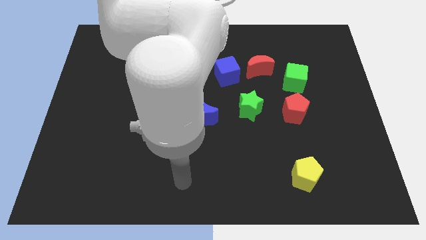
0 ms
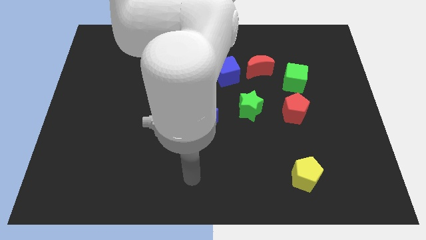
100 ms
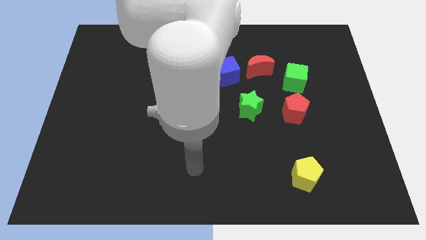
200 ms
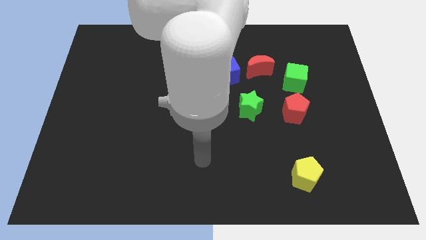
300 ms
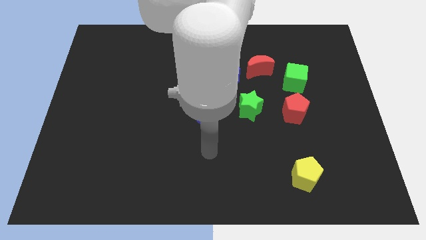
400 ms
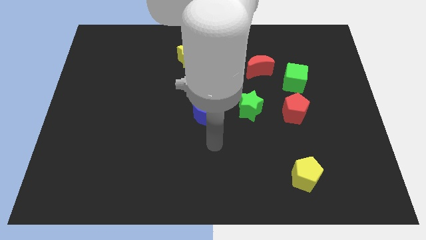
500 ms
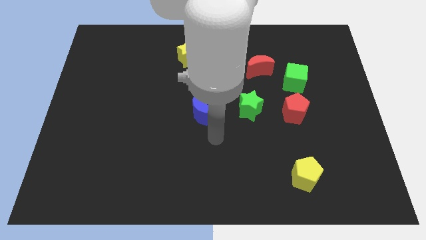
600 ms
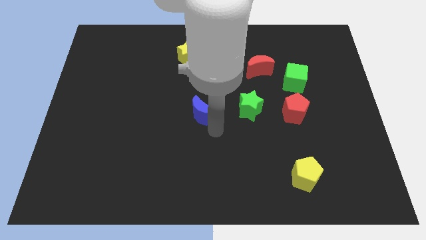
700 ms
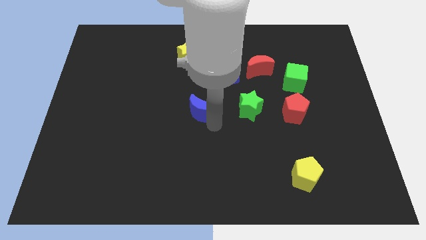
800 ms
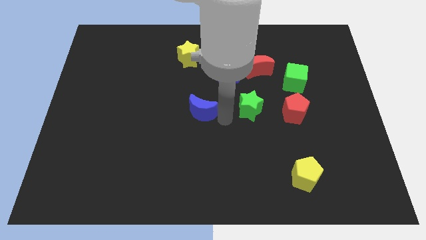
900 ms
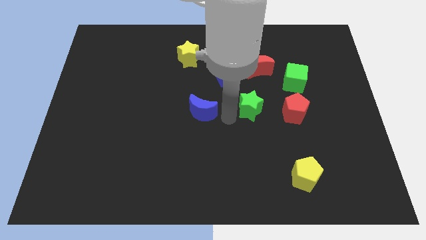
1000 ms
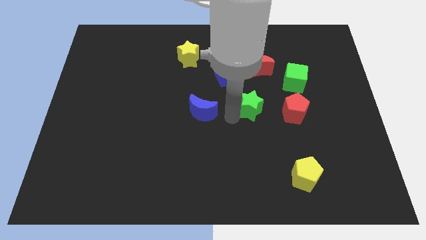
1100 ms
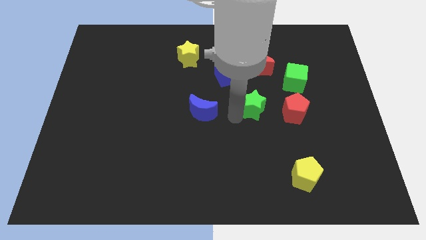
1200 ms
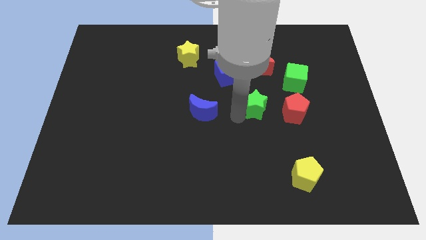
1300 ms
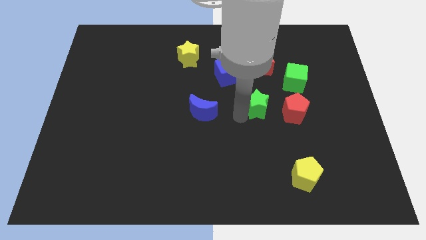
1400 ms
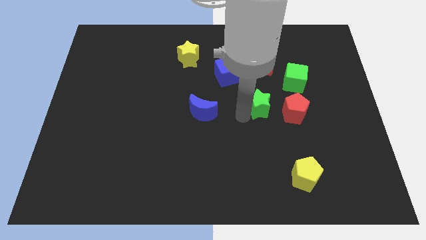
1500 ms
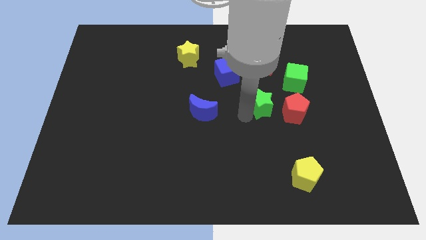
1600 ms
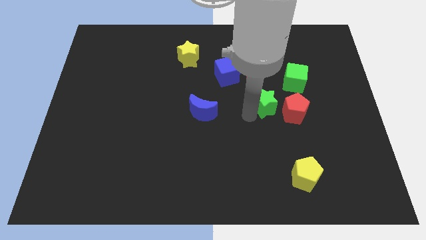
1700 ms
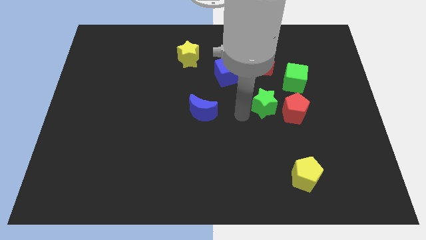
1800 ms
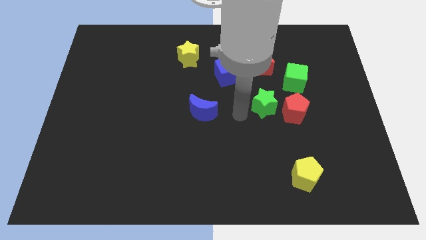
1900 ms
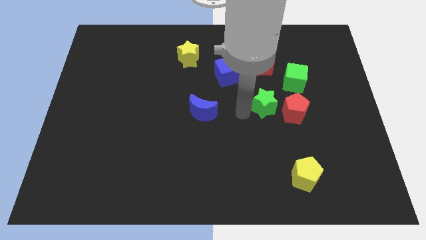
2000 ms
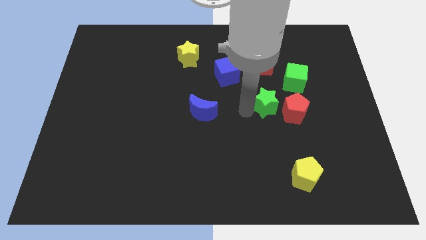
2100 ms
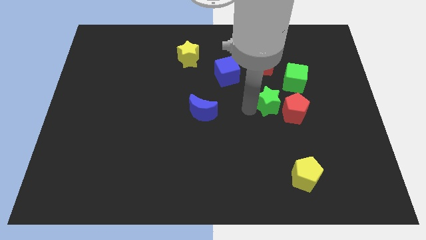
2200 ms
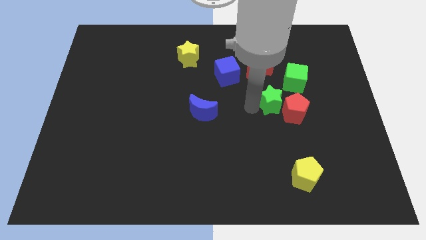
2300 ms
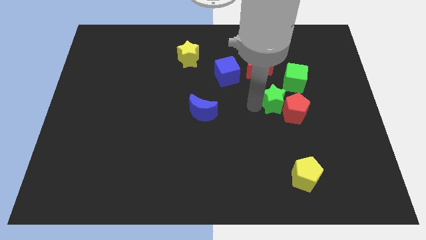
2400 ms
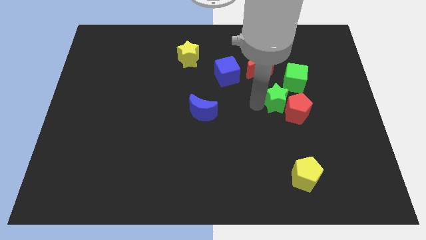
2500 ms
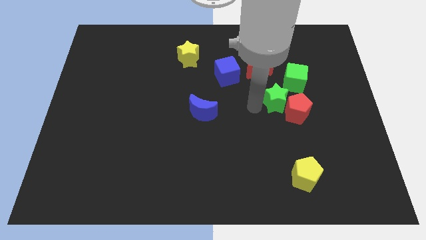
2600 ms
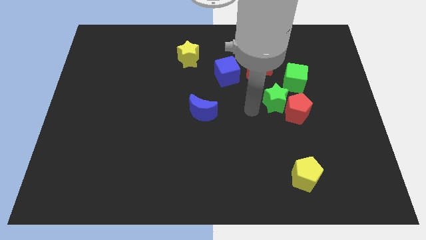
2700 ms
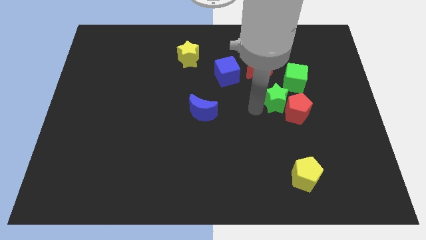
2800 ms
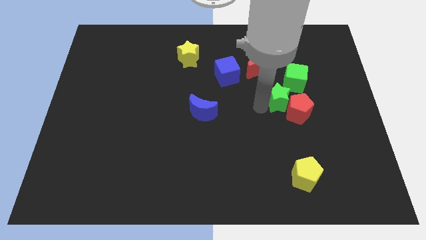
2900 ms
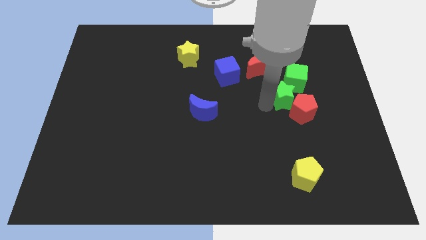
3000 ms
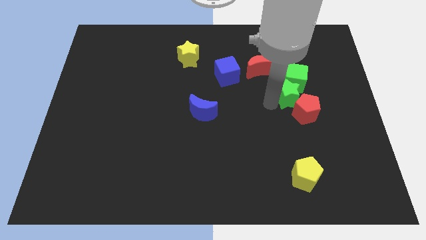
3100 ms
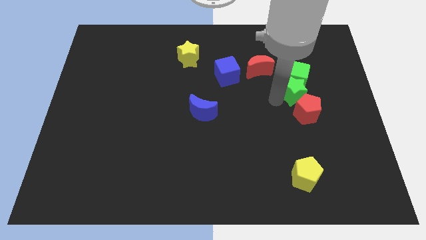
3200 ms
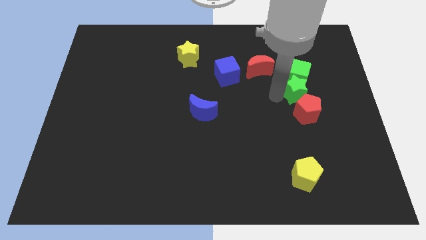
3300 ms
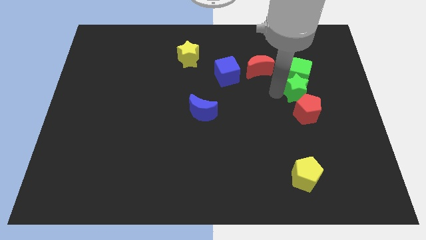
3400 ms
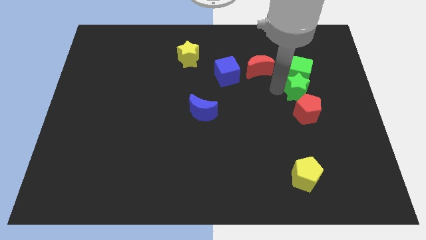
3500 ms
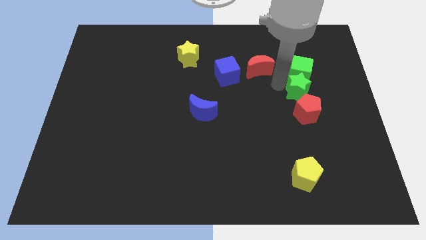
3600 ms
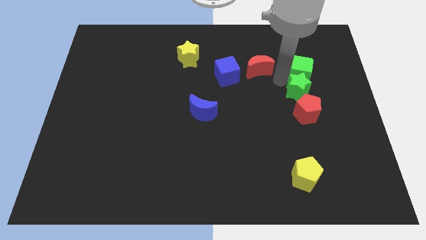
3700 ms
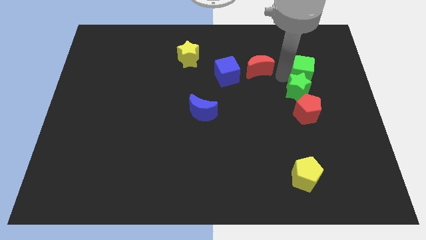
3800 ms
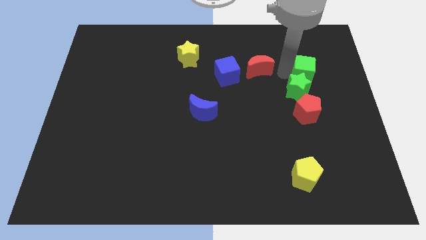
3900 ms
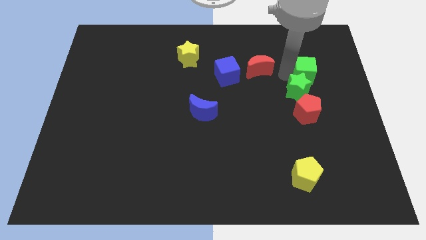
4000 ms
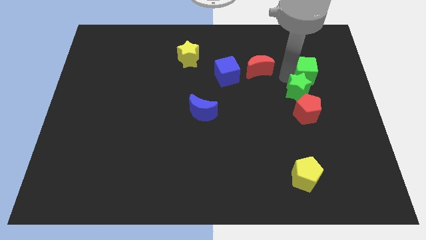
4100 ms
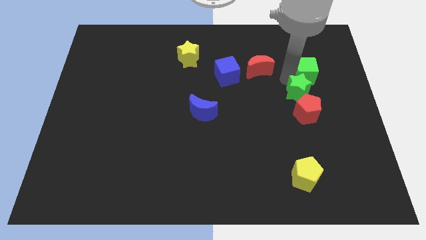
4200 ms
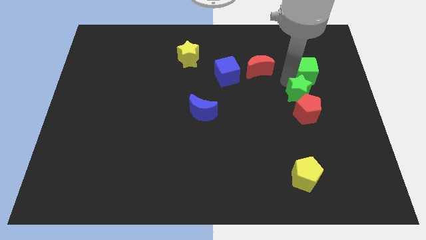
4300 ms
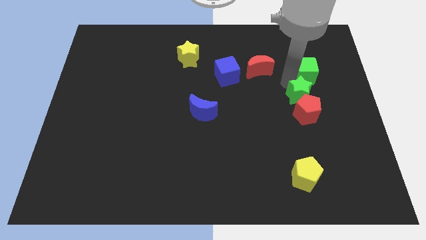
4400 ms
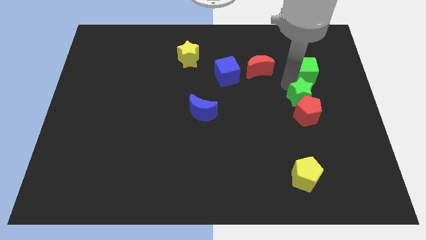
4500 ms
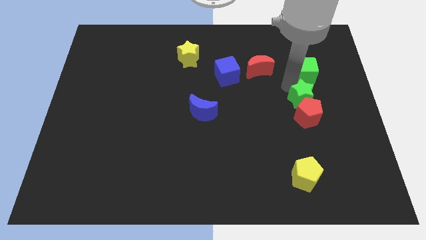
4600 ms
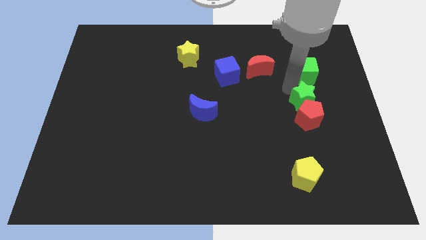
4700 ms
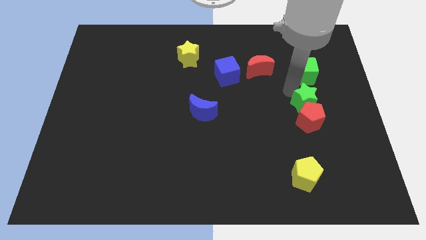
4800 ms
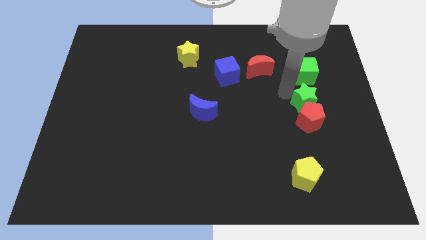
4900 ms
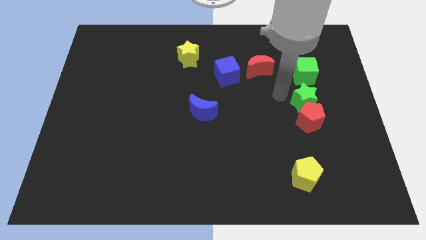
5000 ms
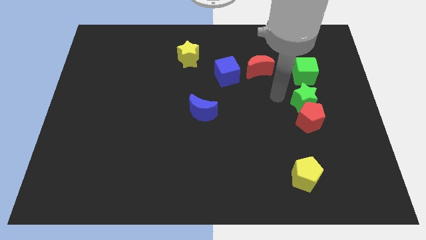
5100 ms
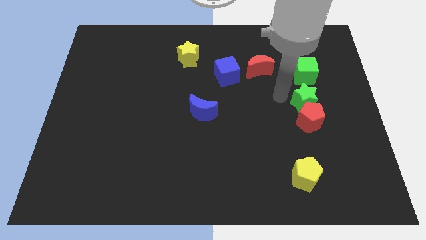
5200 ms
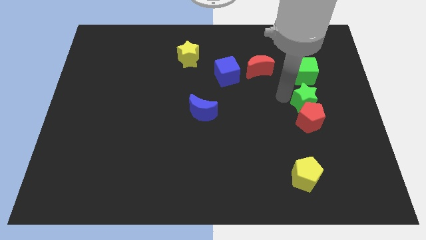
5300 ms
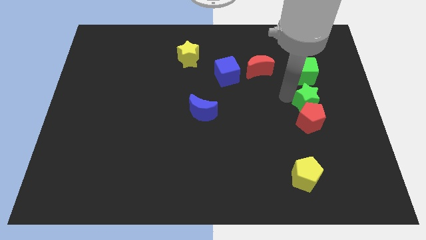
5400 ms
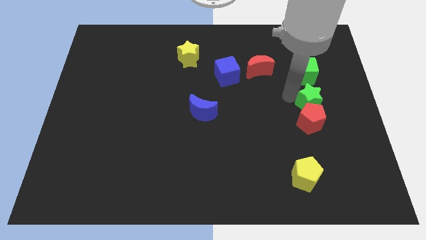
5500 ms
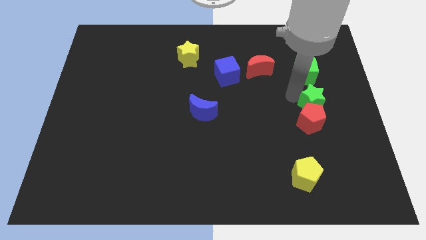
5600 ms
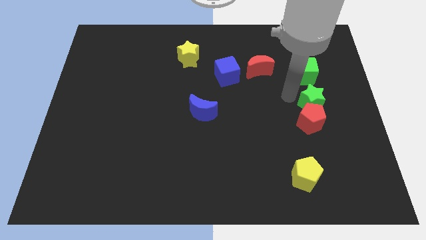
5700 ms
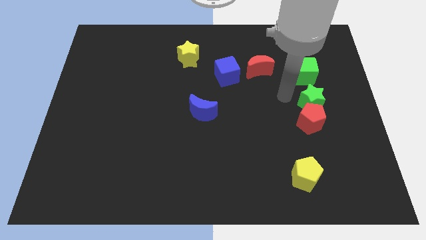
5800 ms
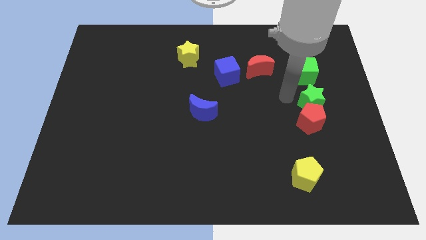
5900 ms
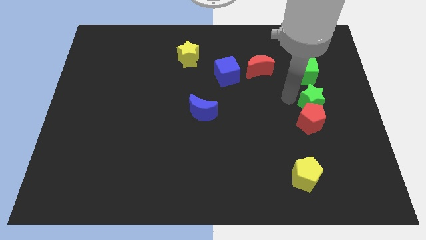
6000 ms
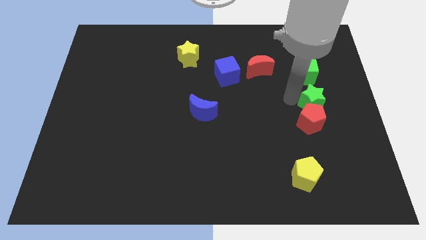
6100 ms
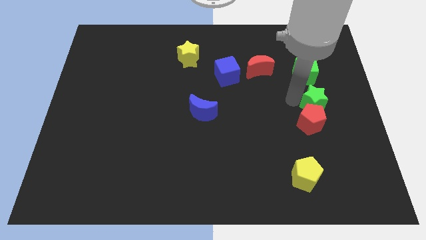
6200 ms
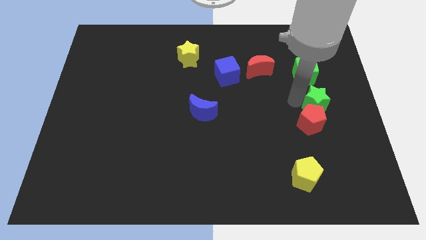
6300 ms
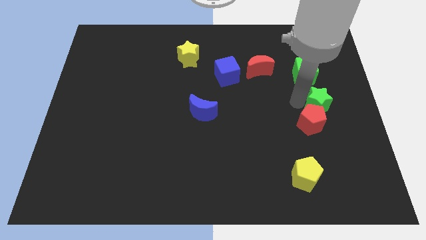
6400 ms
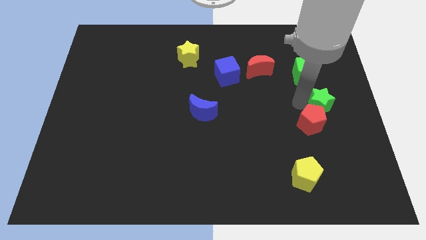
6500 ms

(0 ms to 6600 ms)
move the green star to the center right

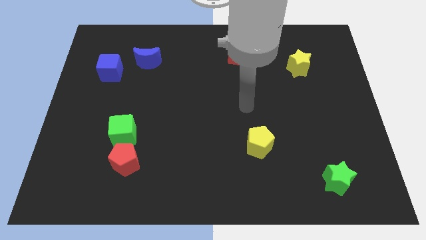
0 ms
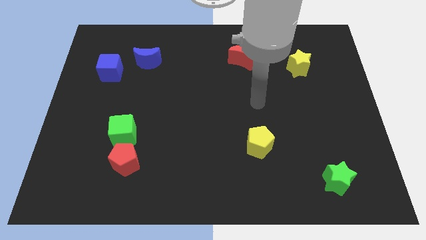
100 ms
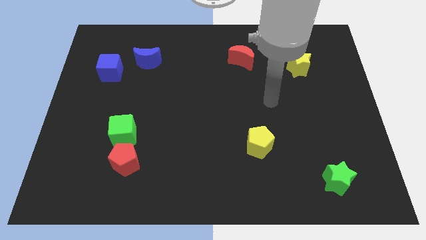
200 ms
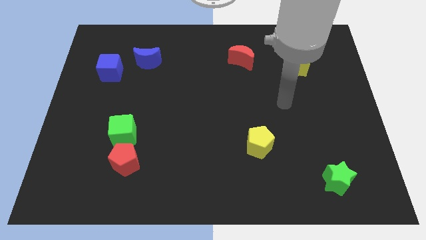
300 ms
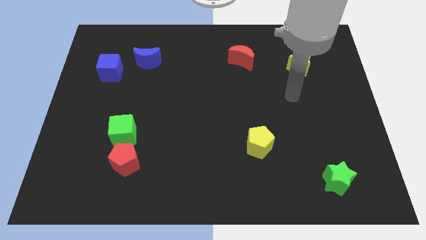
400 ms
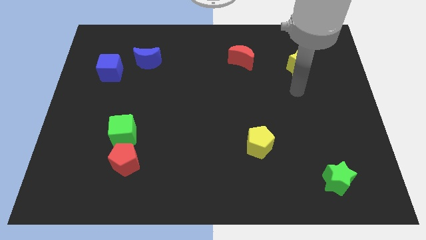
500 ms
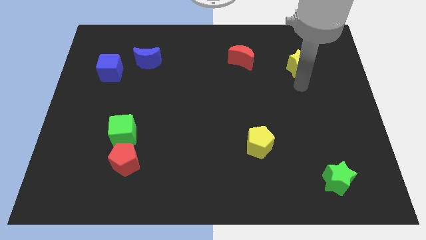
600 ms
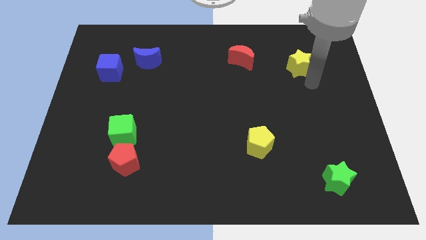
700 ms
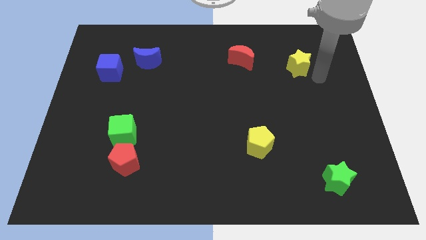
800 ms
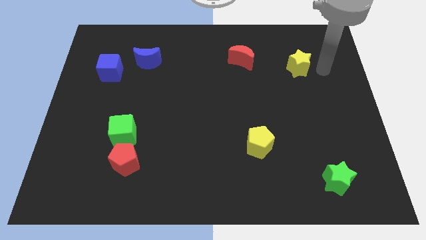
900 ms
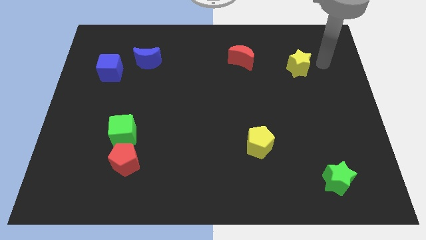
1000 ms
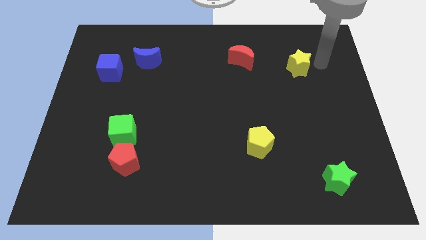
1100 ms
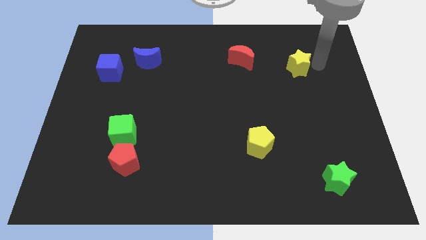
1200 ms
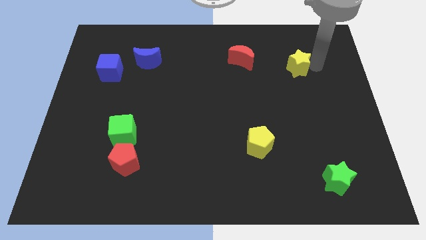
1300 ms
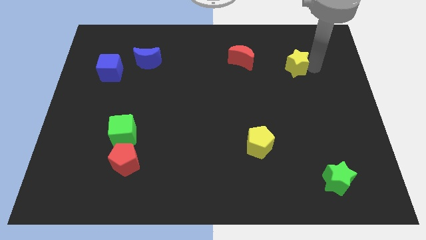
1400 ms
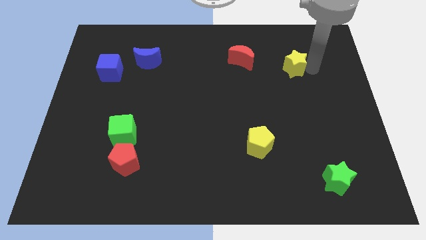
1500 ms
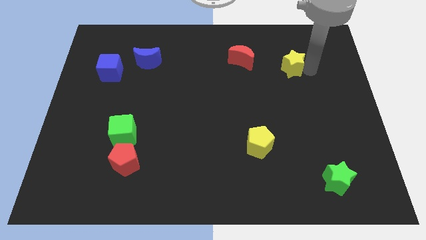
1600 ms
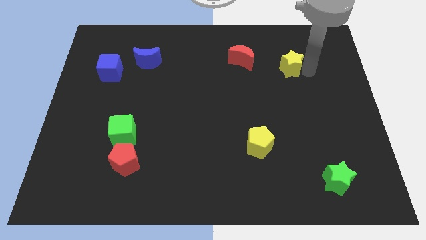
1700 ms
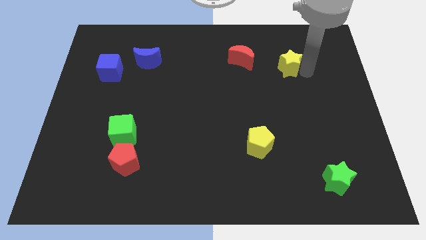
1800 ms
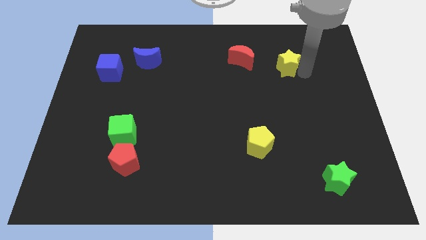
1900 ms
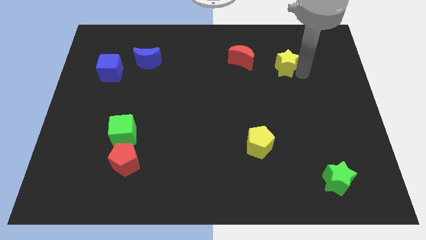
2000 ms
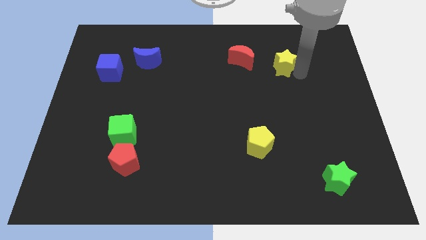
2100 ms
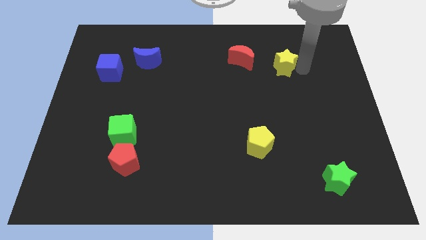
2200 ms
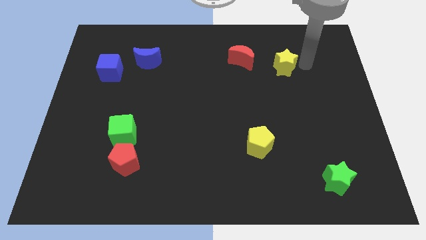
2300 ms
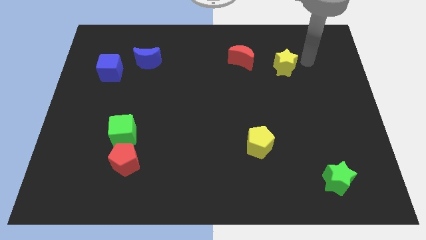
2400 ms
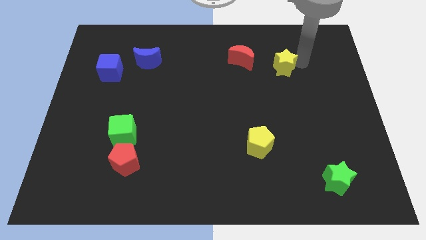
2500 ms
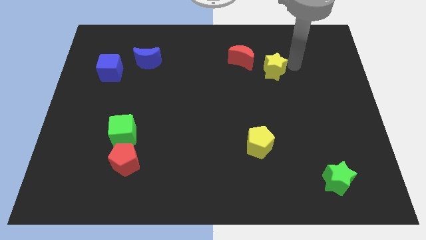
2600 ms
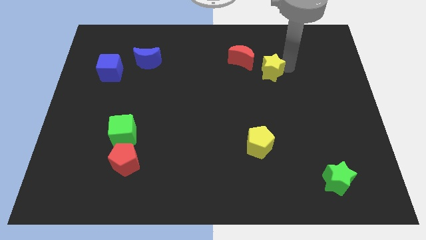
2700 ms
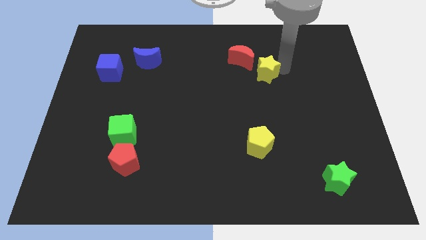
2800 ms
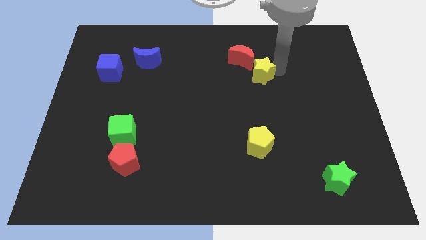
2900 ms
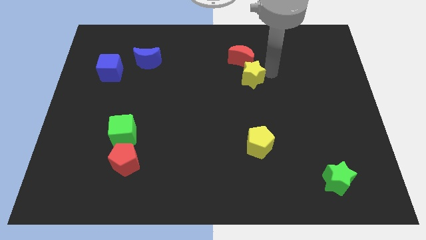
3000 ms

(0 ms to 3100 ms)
put the yellow star to the center
